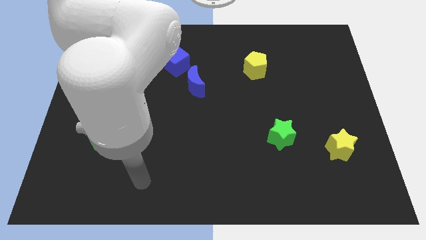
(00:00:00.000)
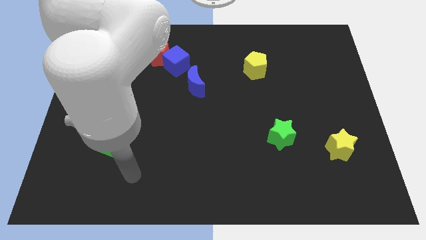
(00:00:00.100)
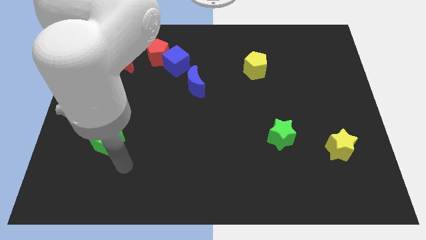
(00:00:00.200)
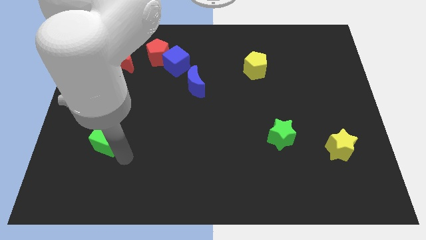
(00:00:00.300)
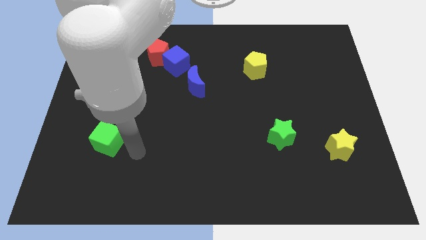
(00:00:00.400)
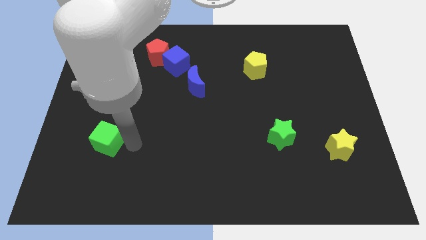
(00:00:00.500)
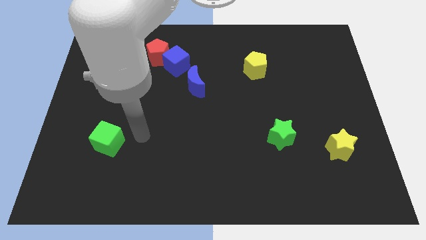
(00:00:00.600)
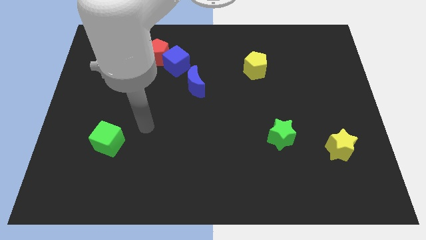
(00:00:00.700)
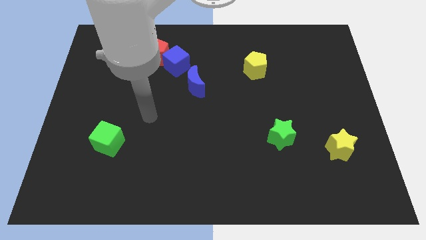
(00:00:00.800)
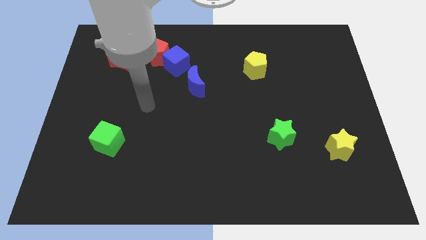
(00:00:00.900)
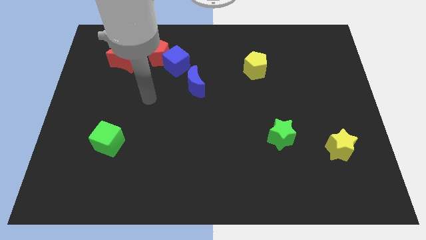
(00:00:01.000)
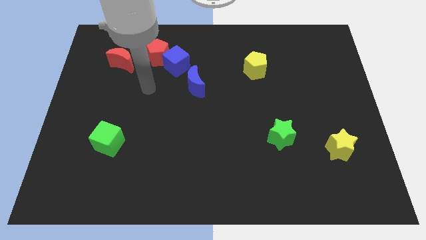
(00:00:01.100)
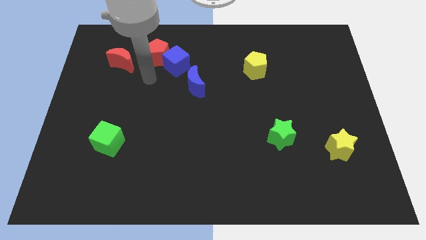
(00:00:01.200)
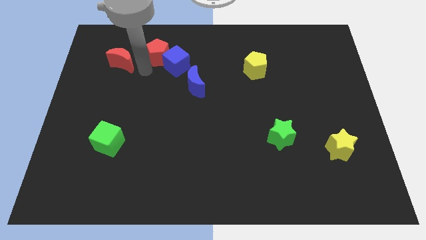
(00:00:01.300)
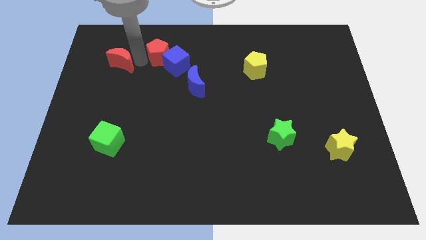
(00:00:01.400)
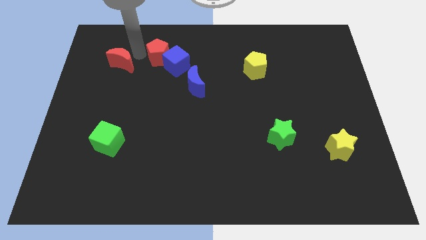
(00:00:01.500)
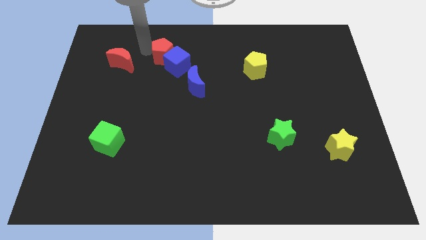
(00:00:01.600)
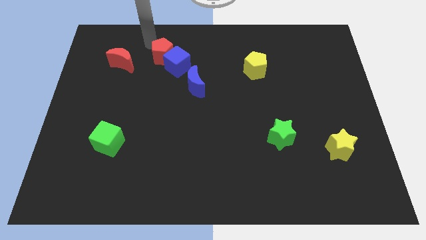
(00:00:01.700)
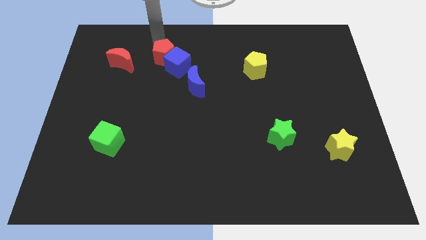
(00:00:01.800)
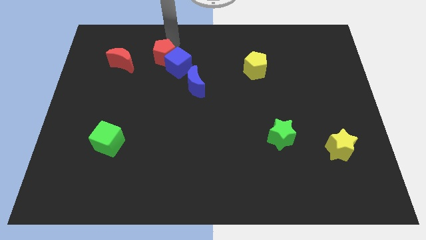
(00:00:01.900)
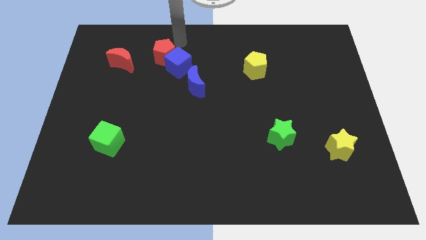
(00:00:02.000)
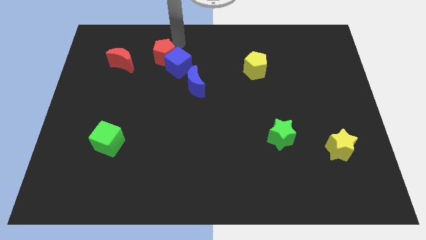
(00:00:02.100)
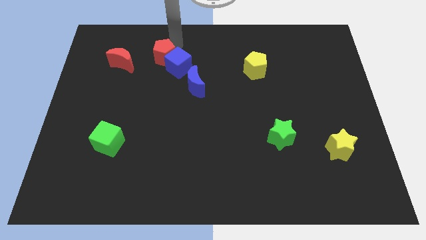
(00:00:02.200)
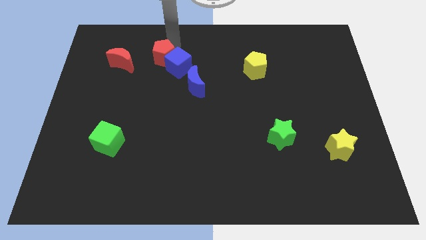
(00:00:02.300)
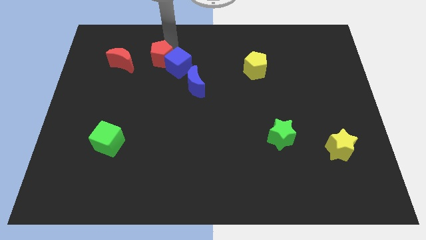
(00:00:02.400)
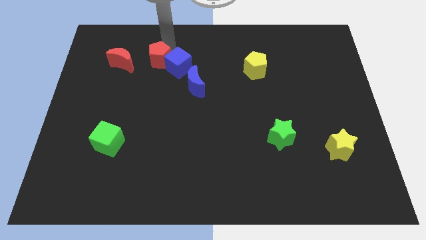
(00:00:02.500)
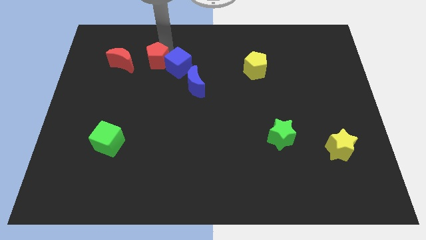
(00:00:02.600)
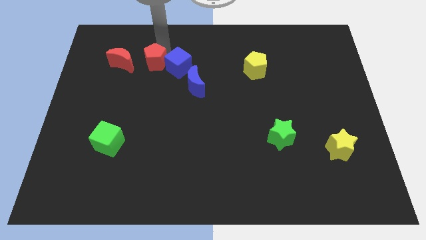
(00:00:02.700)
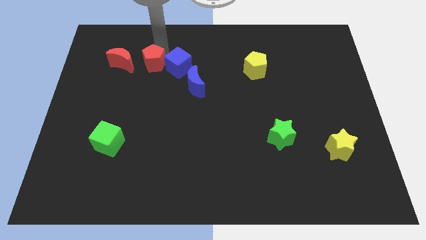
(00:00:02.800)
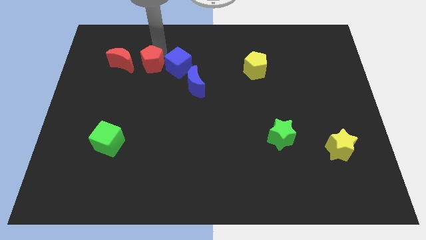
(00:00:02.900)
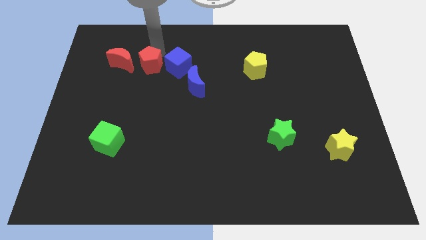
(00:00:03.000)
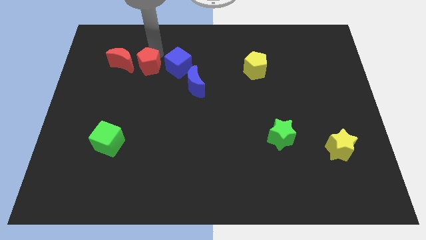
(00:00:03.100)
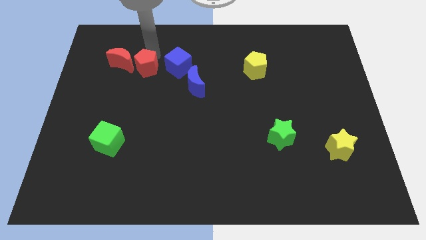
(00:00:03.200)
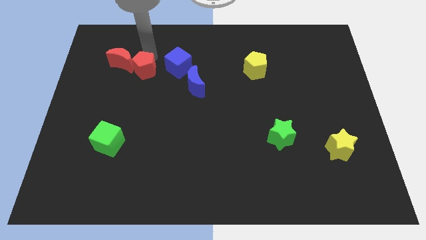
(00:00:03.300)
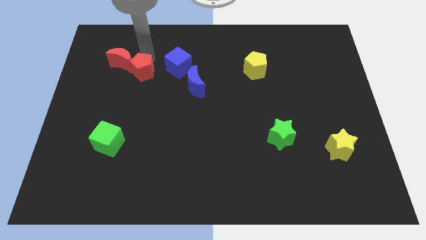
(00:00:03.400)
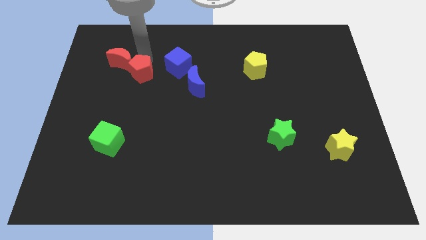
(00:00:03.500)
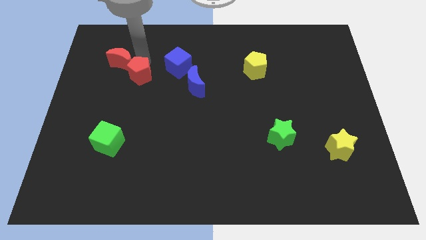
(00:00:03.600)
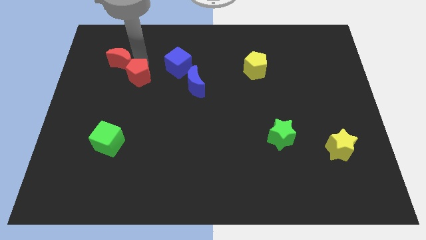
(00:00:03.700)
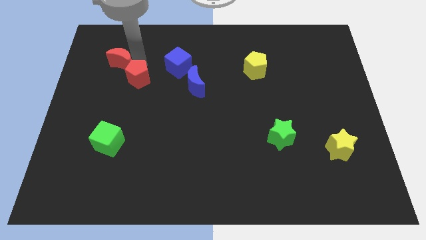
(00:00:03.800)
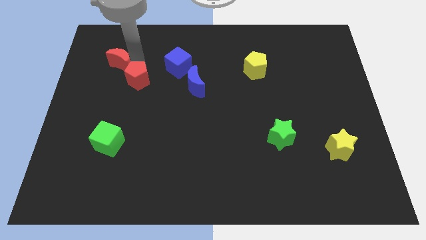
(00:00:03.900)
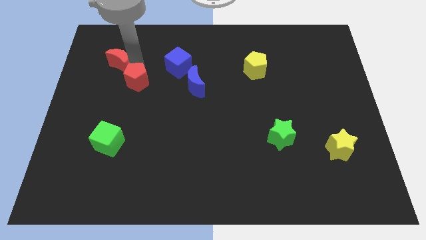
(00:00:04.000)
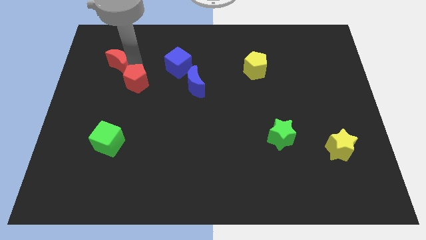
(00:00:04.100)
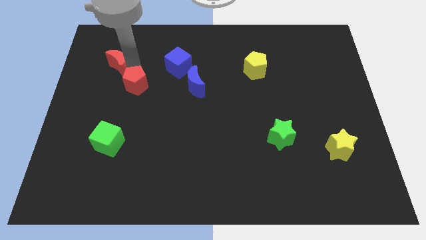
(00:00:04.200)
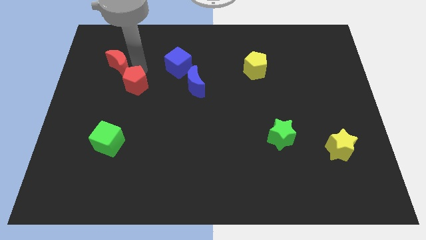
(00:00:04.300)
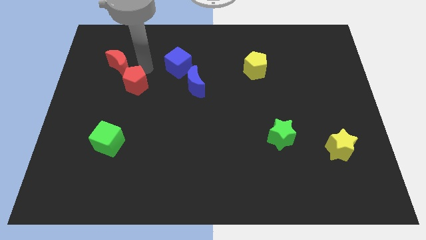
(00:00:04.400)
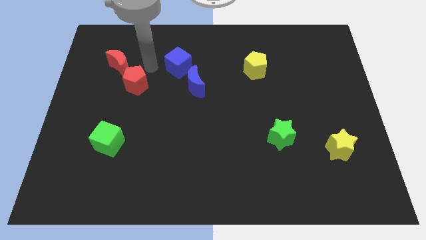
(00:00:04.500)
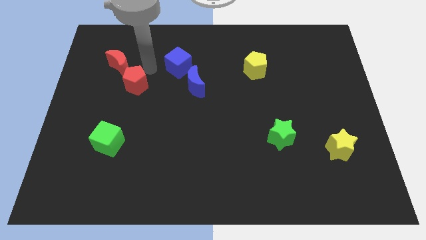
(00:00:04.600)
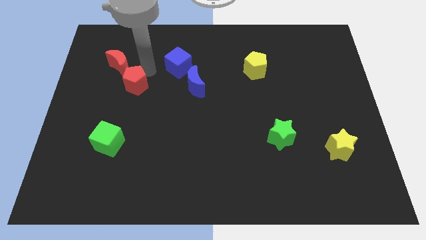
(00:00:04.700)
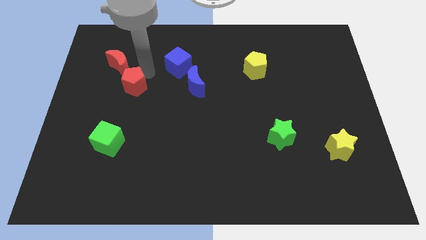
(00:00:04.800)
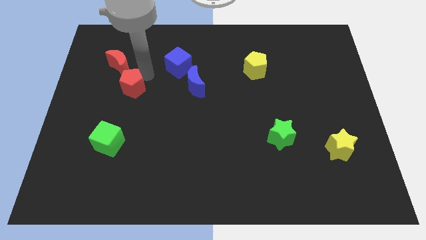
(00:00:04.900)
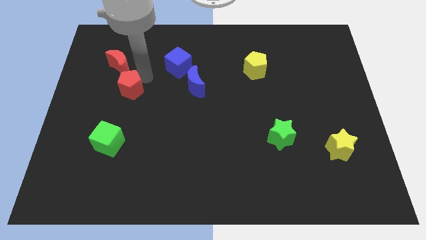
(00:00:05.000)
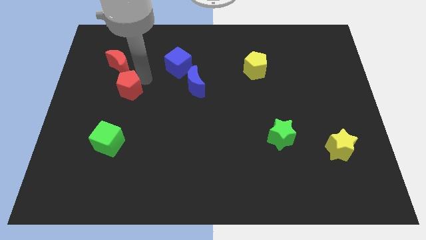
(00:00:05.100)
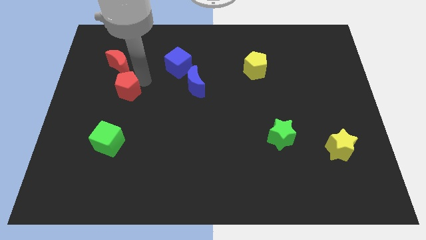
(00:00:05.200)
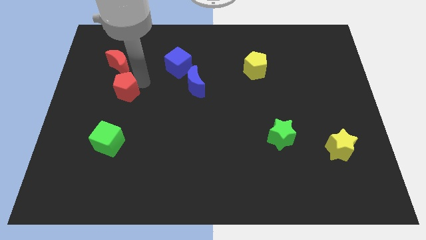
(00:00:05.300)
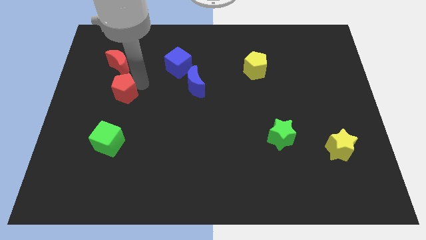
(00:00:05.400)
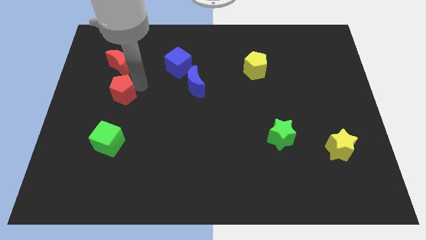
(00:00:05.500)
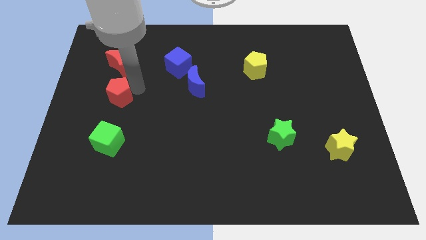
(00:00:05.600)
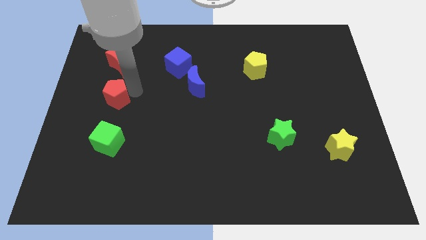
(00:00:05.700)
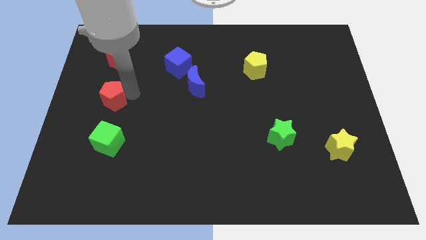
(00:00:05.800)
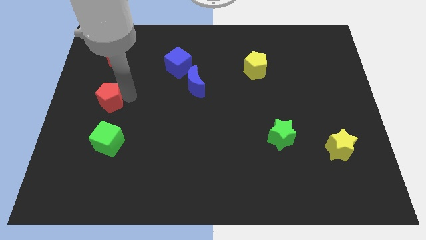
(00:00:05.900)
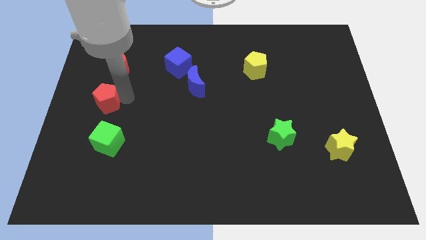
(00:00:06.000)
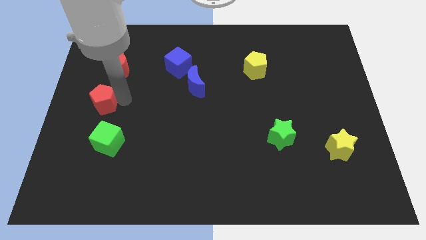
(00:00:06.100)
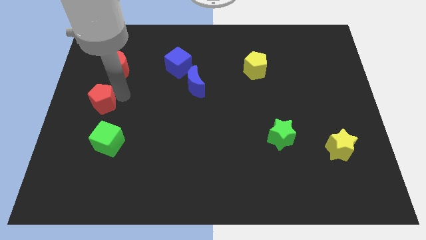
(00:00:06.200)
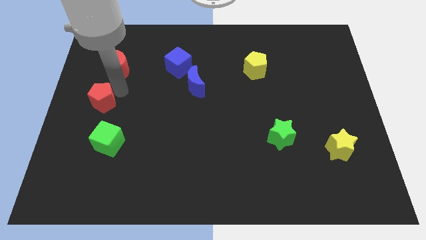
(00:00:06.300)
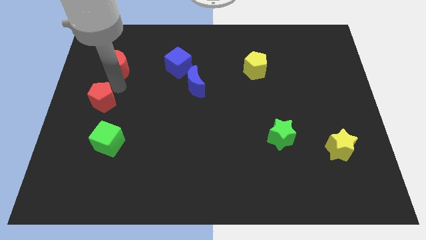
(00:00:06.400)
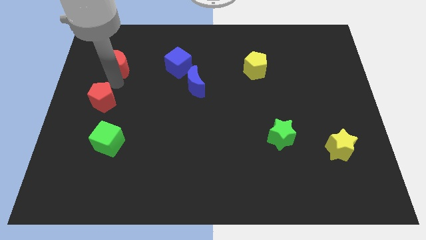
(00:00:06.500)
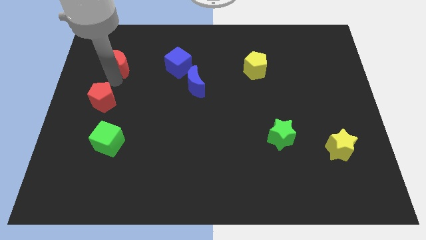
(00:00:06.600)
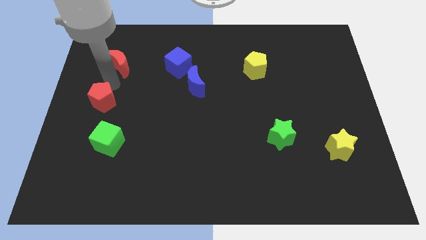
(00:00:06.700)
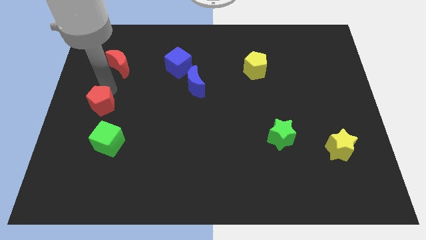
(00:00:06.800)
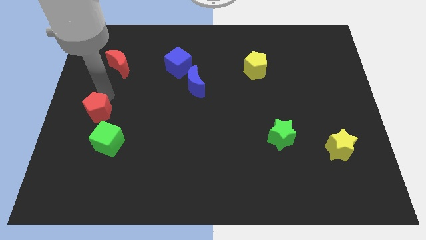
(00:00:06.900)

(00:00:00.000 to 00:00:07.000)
slide the red pentagon diagonally up and to the left of the green cube
